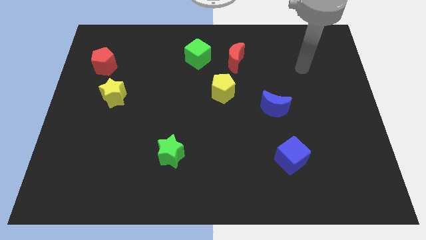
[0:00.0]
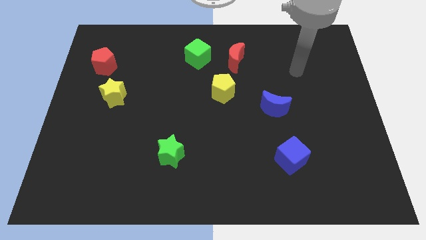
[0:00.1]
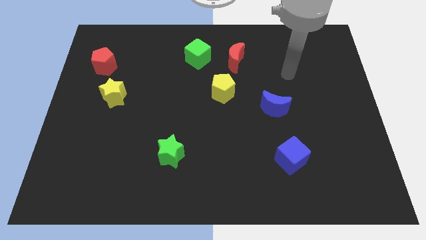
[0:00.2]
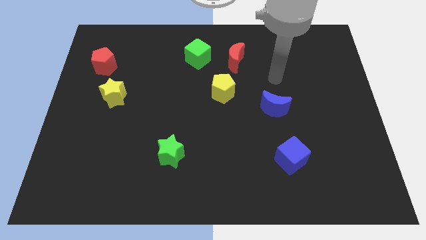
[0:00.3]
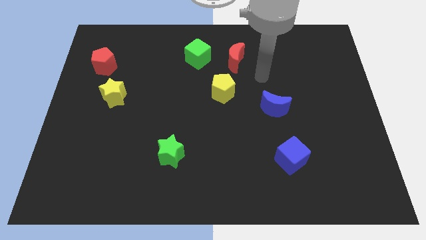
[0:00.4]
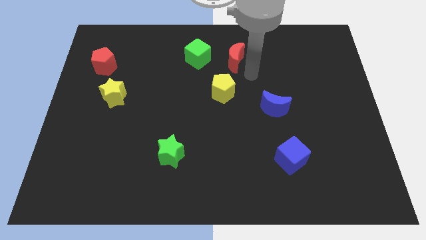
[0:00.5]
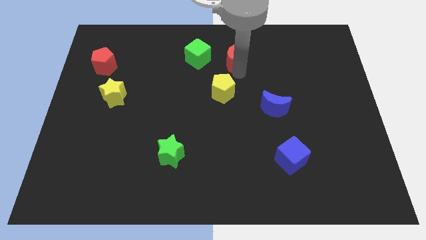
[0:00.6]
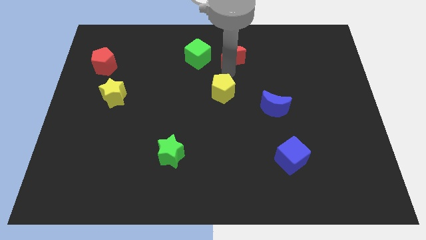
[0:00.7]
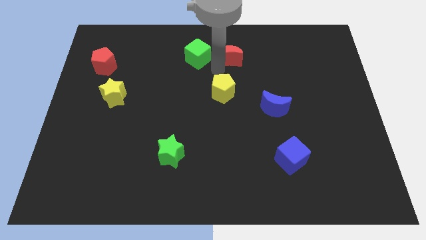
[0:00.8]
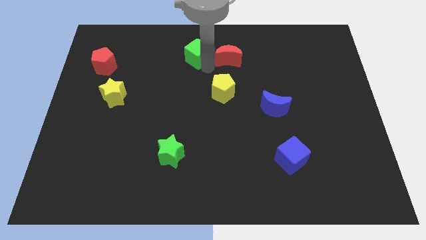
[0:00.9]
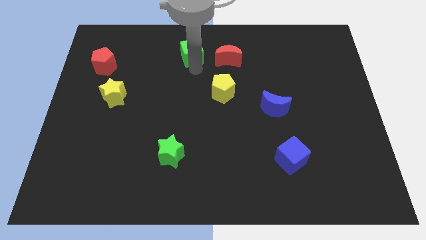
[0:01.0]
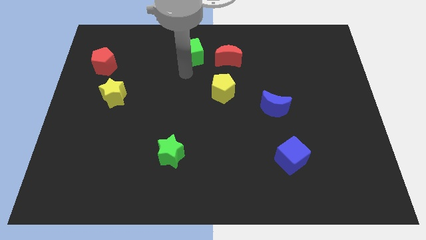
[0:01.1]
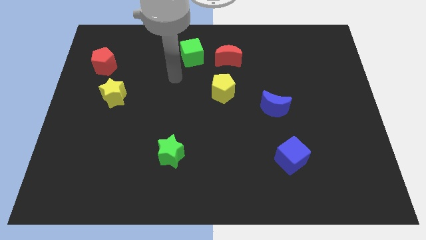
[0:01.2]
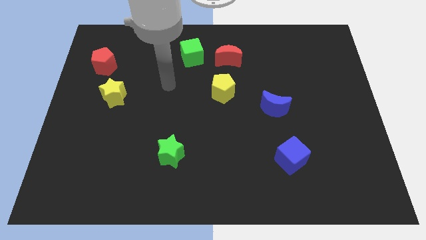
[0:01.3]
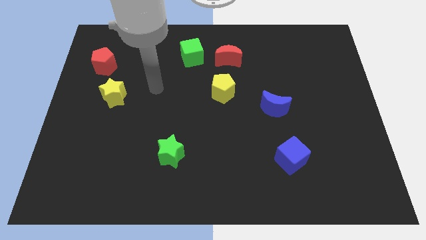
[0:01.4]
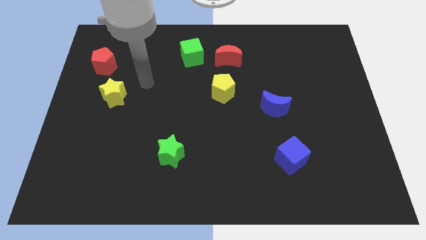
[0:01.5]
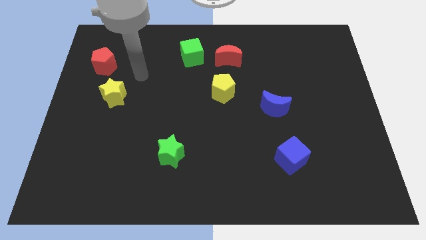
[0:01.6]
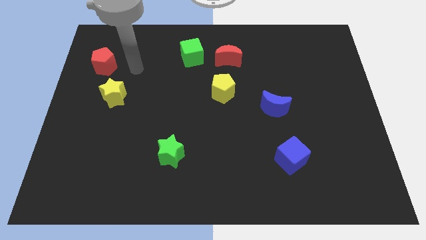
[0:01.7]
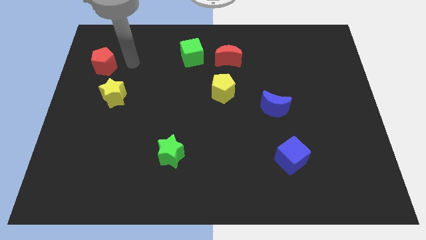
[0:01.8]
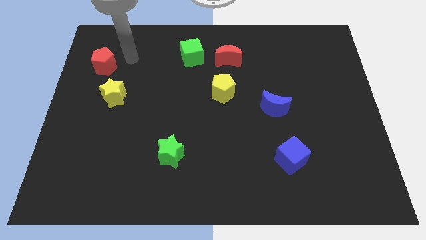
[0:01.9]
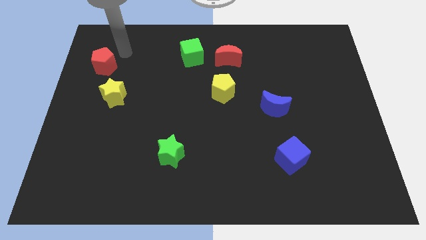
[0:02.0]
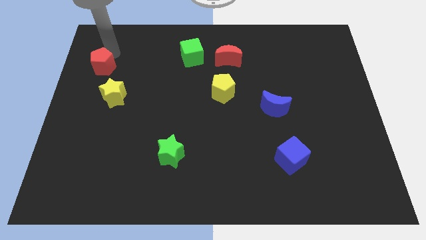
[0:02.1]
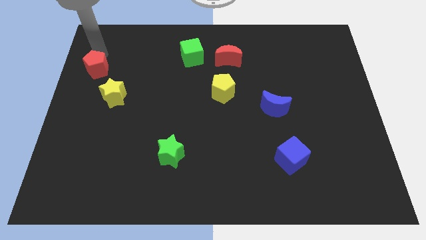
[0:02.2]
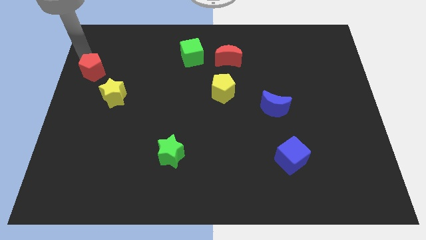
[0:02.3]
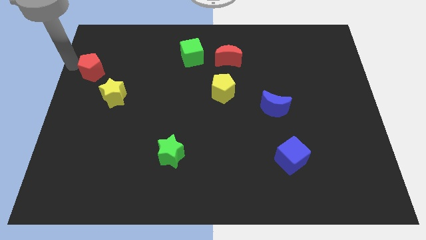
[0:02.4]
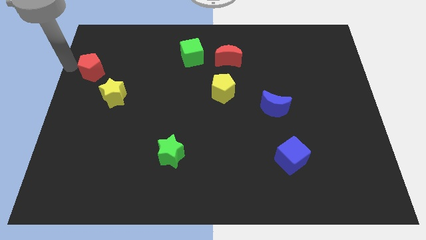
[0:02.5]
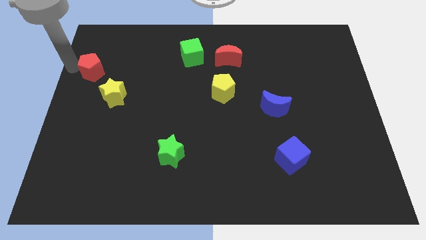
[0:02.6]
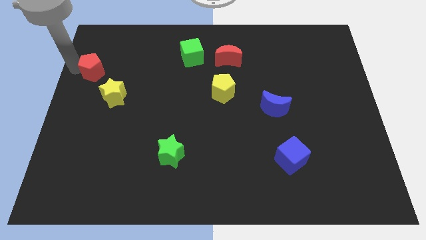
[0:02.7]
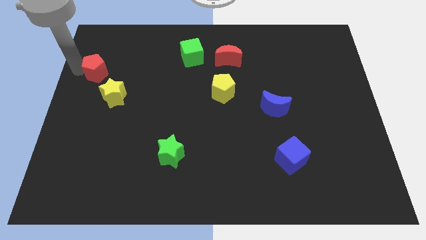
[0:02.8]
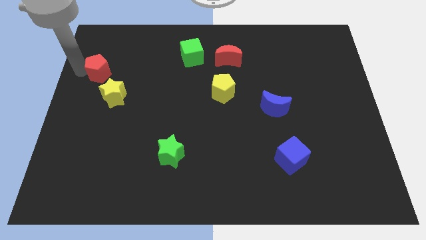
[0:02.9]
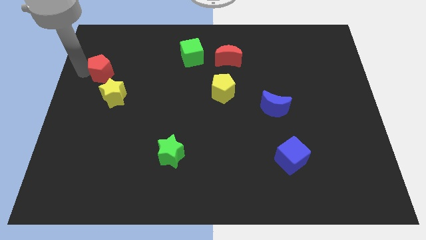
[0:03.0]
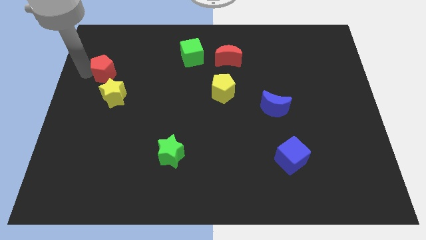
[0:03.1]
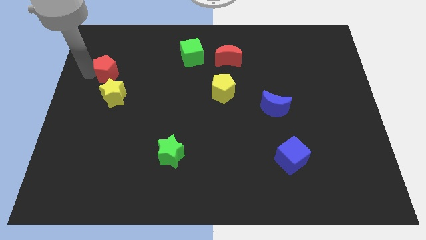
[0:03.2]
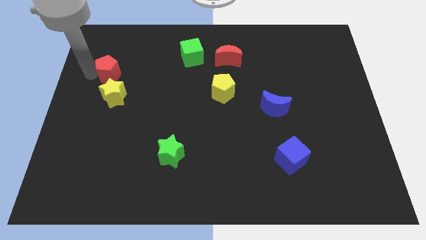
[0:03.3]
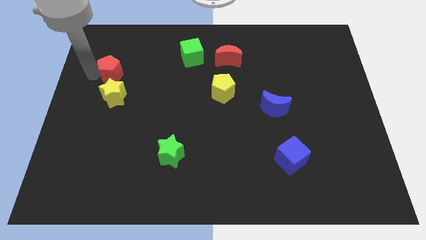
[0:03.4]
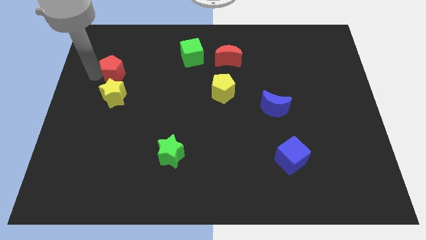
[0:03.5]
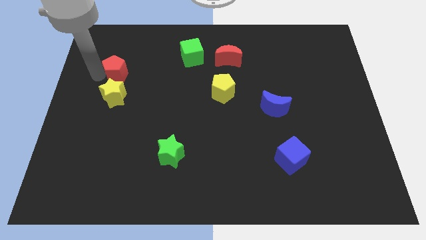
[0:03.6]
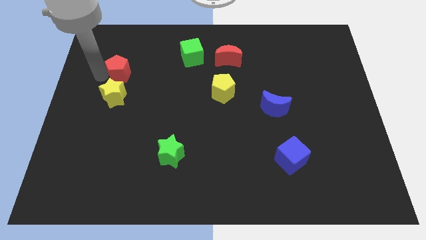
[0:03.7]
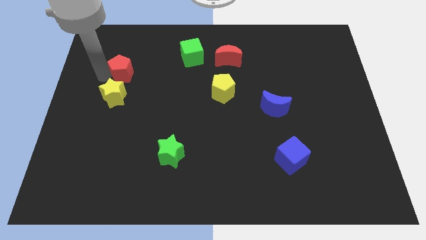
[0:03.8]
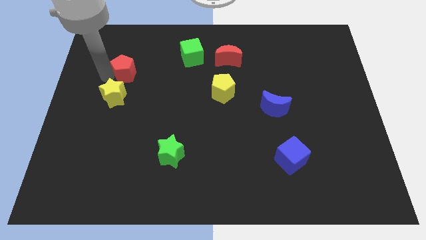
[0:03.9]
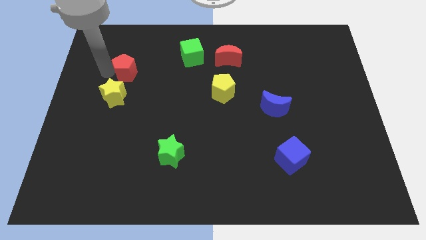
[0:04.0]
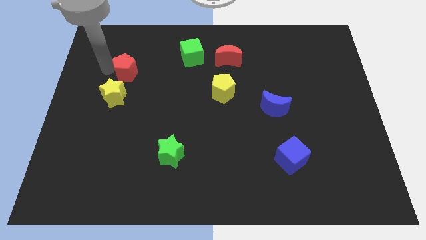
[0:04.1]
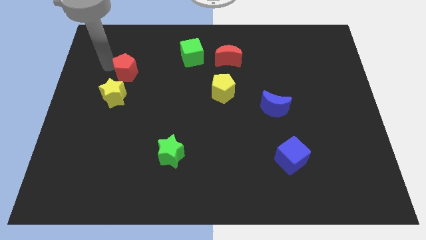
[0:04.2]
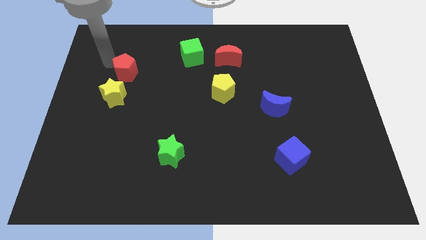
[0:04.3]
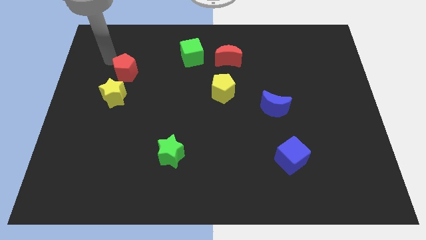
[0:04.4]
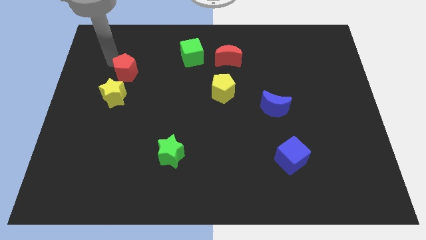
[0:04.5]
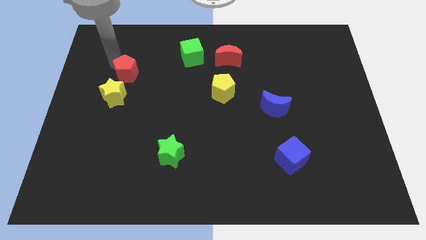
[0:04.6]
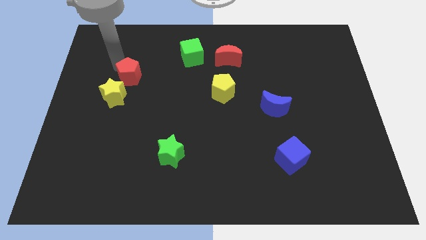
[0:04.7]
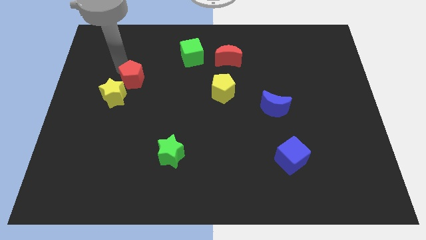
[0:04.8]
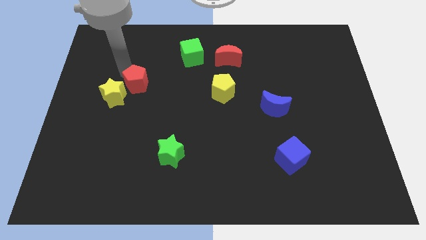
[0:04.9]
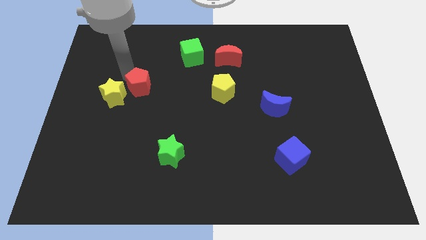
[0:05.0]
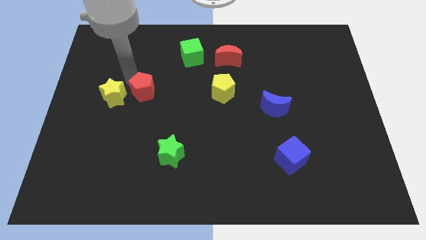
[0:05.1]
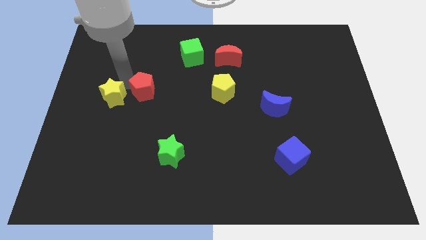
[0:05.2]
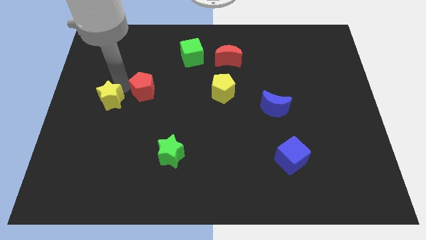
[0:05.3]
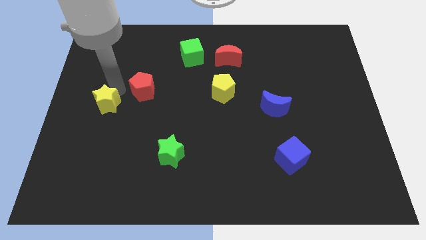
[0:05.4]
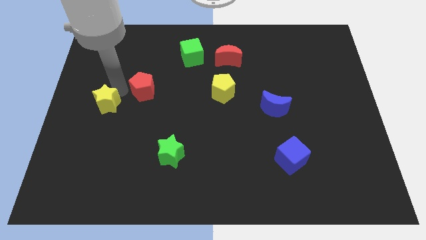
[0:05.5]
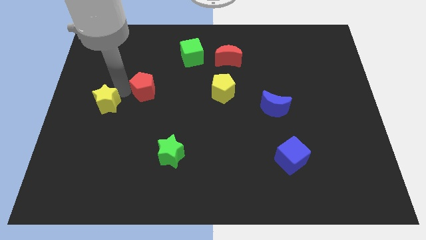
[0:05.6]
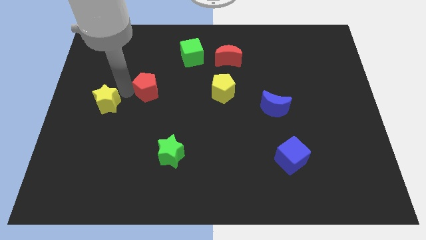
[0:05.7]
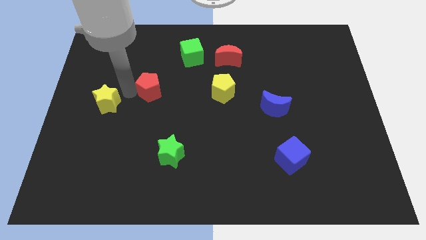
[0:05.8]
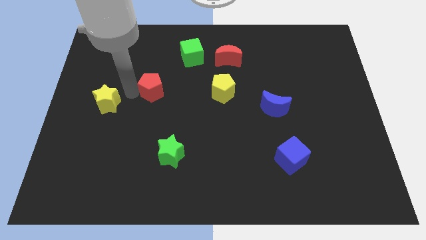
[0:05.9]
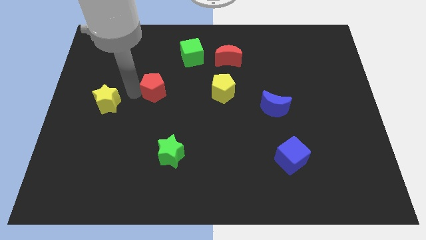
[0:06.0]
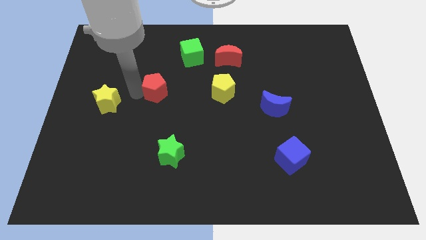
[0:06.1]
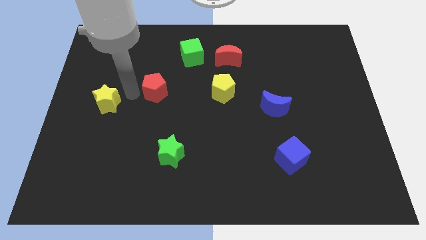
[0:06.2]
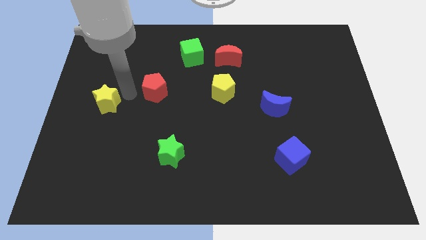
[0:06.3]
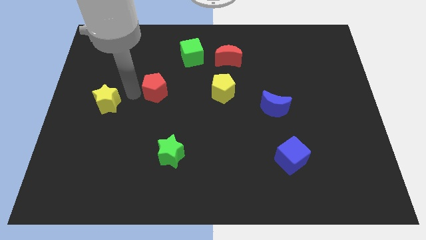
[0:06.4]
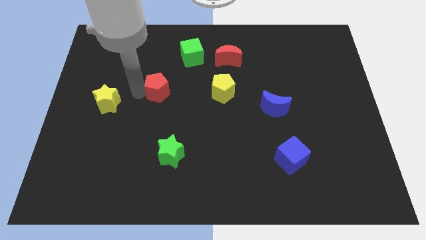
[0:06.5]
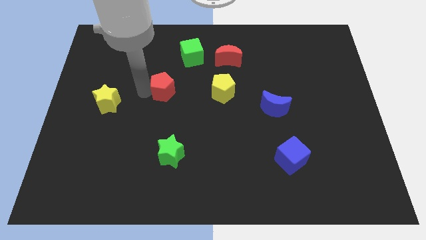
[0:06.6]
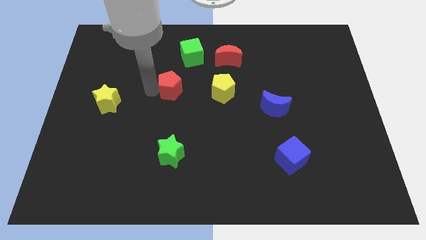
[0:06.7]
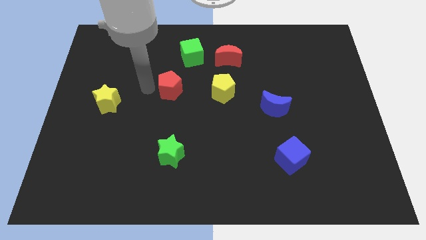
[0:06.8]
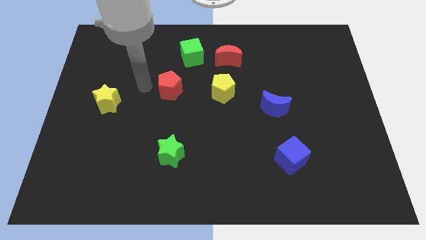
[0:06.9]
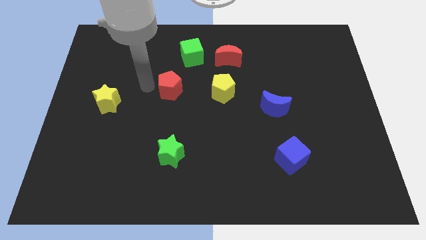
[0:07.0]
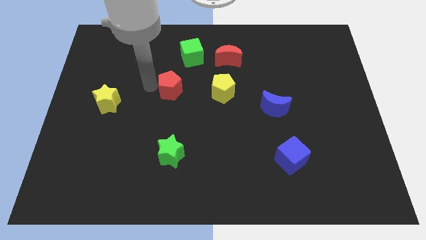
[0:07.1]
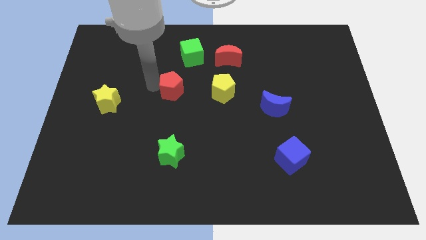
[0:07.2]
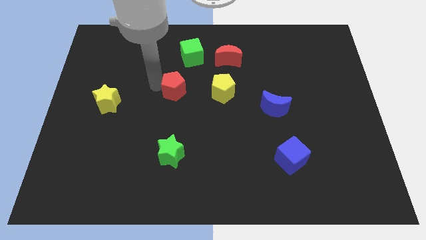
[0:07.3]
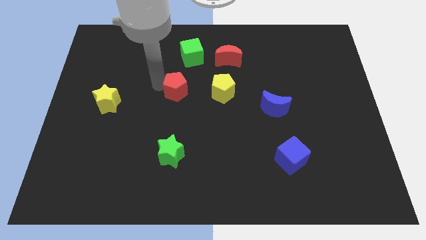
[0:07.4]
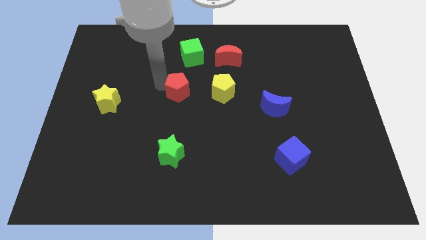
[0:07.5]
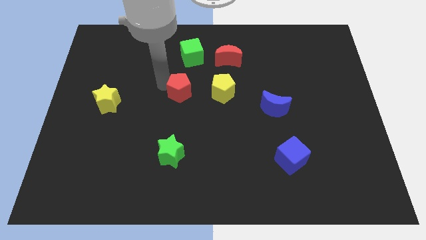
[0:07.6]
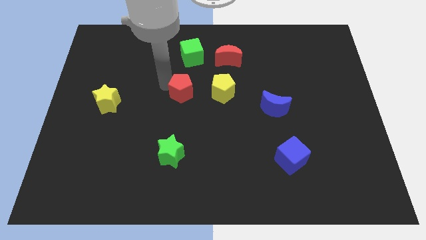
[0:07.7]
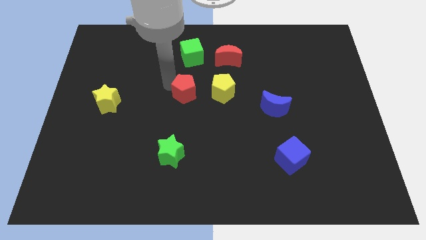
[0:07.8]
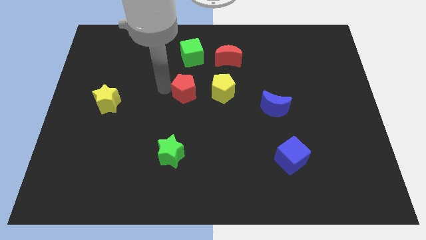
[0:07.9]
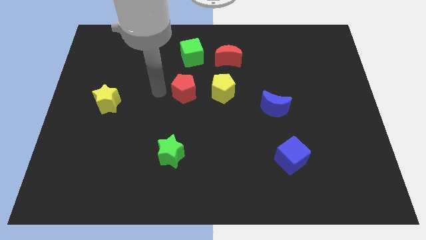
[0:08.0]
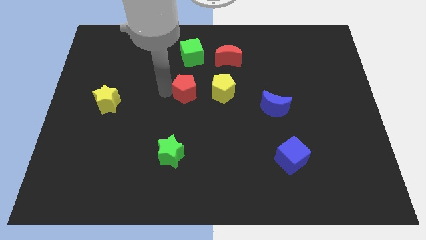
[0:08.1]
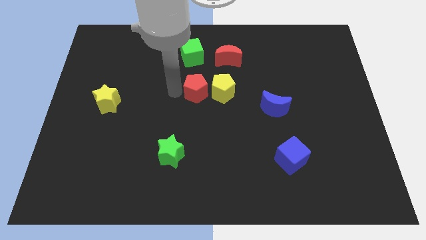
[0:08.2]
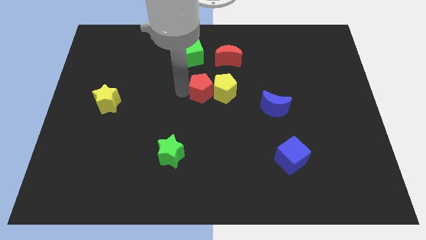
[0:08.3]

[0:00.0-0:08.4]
push the red pentagon close to the yellow pentagon
